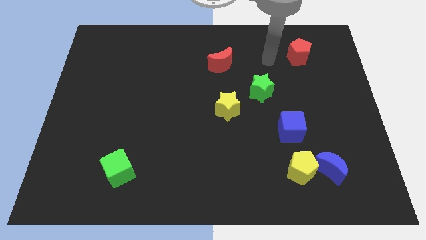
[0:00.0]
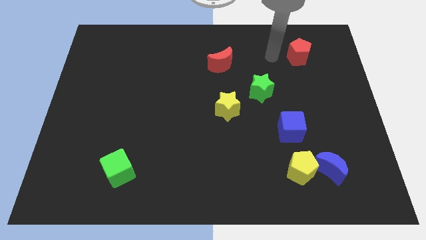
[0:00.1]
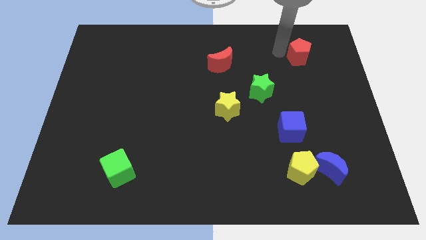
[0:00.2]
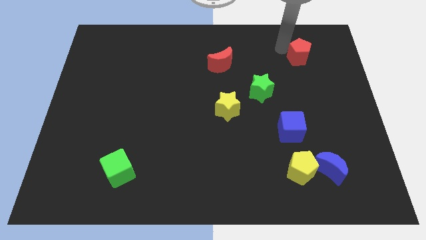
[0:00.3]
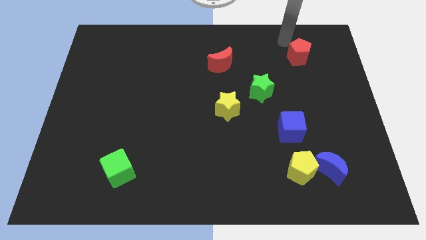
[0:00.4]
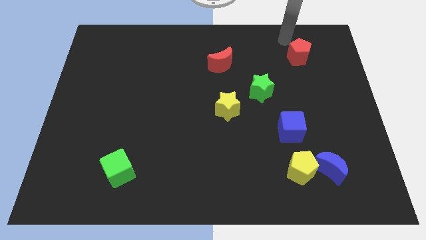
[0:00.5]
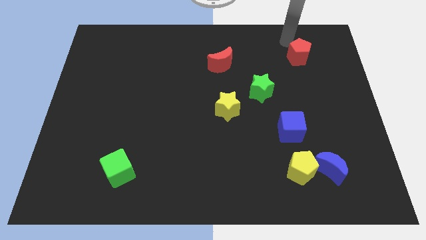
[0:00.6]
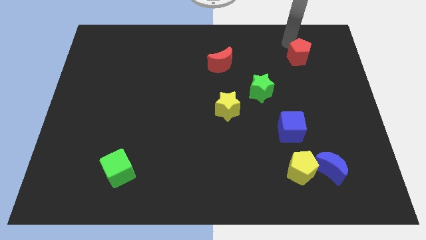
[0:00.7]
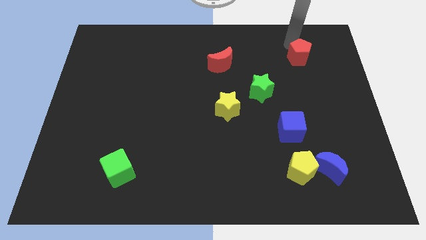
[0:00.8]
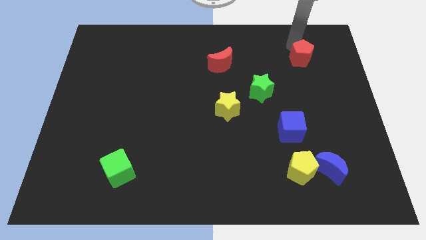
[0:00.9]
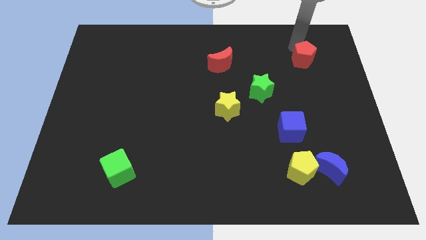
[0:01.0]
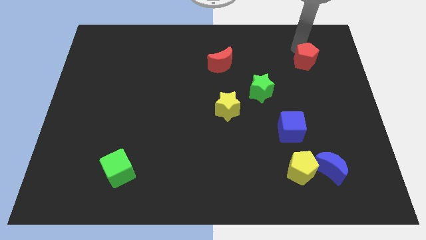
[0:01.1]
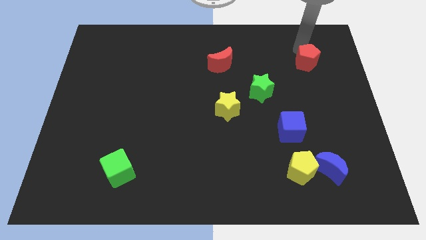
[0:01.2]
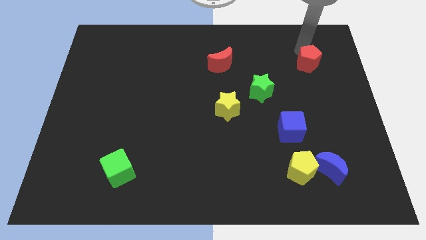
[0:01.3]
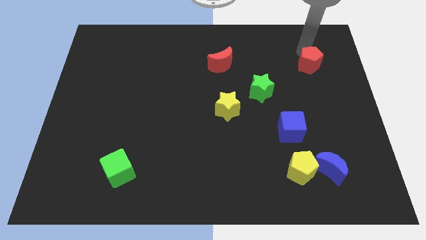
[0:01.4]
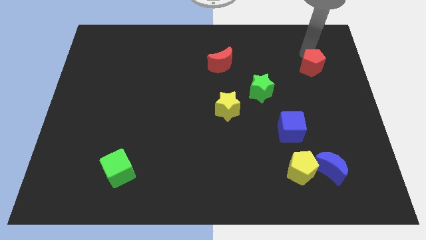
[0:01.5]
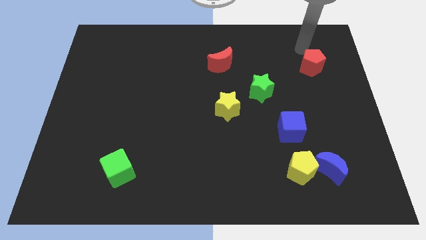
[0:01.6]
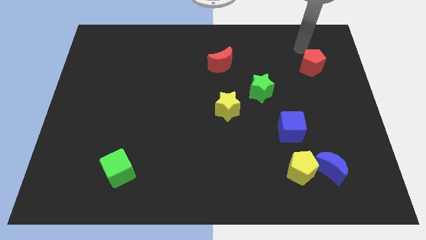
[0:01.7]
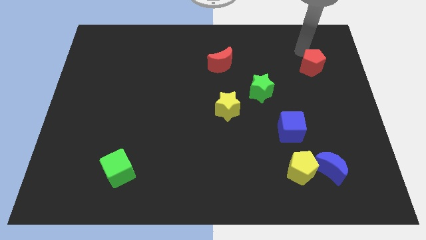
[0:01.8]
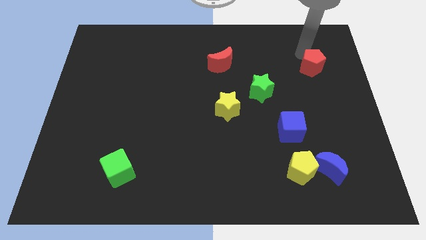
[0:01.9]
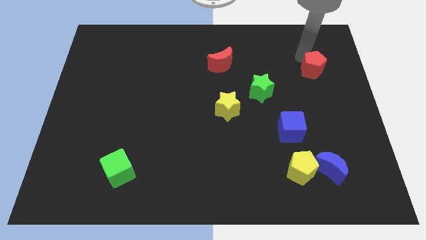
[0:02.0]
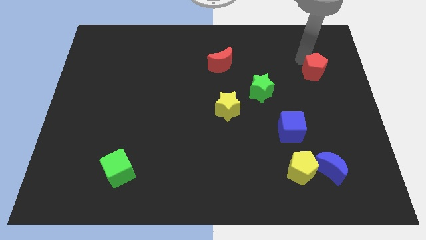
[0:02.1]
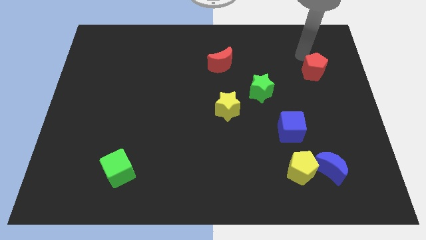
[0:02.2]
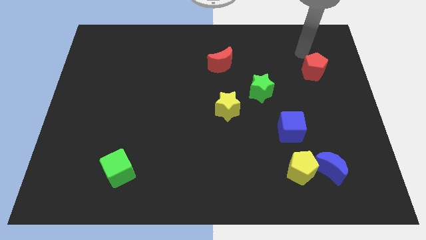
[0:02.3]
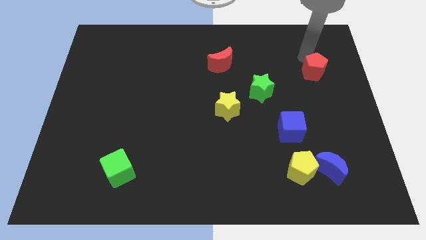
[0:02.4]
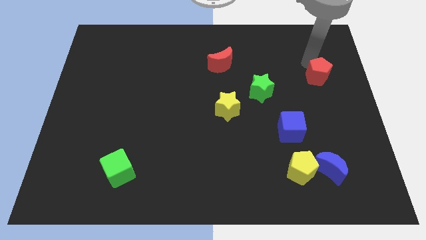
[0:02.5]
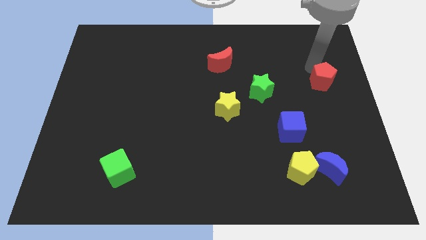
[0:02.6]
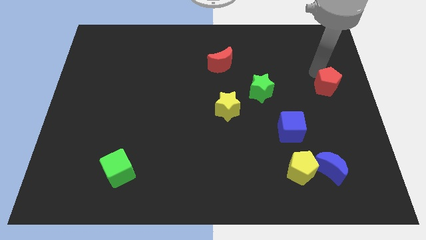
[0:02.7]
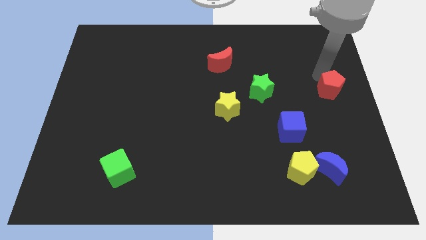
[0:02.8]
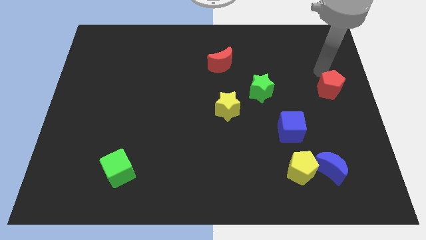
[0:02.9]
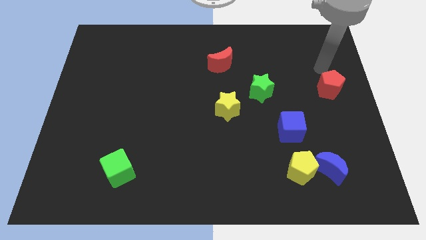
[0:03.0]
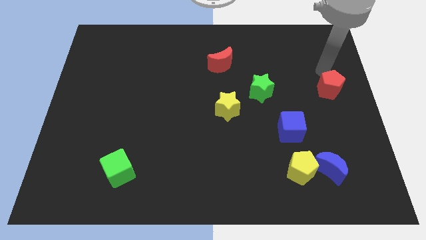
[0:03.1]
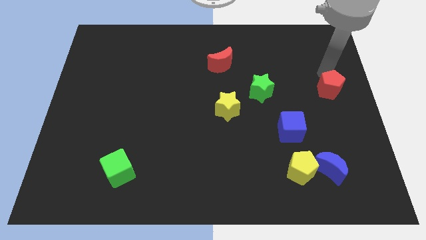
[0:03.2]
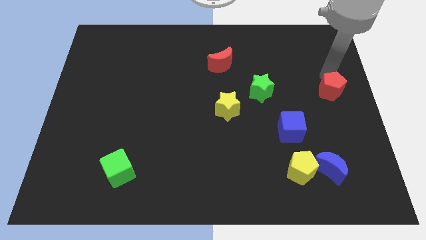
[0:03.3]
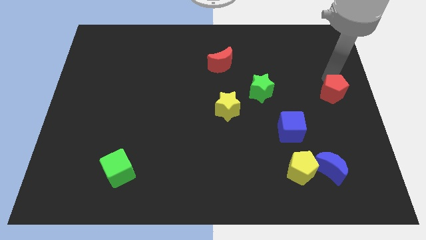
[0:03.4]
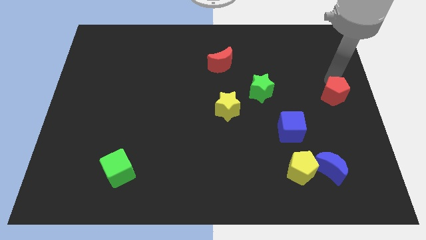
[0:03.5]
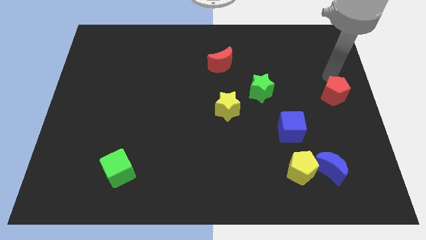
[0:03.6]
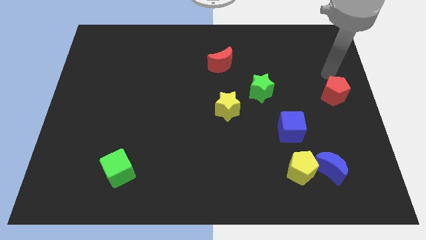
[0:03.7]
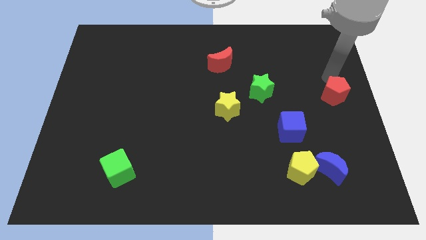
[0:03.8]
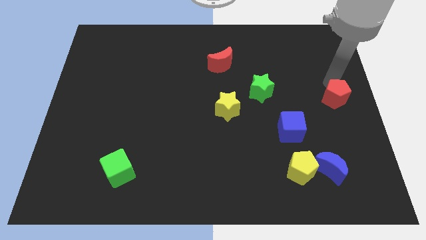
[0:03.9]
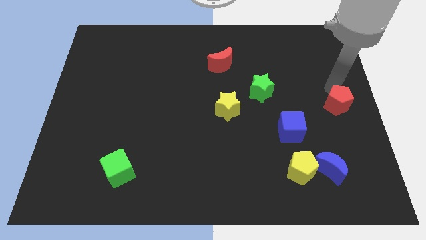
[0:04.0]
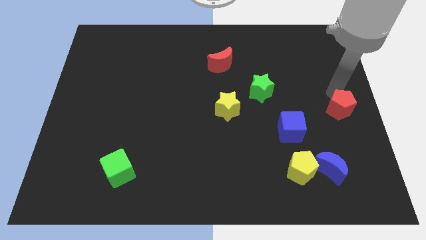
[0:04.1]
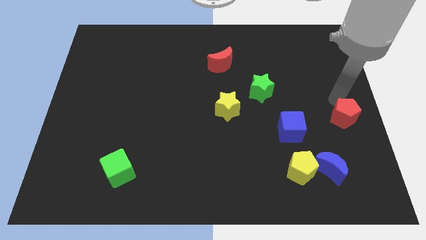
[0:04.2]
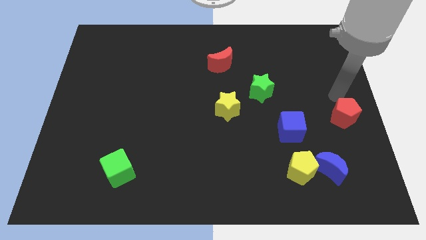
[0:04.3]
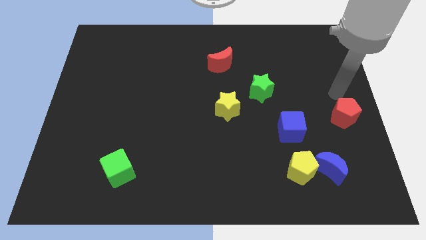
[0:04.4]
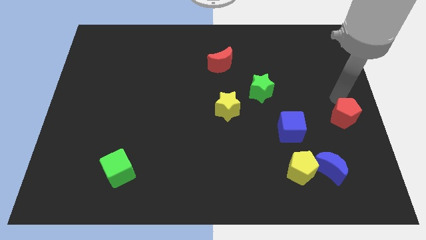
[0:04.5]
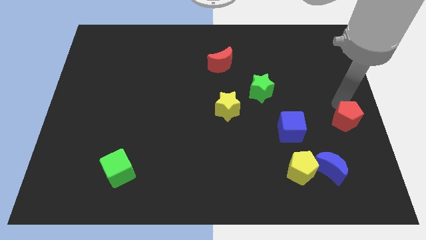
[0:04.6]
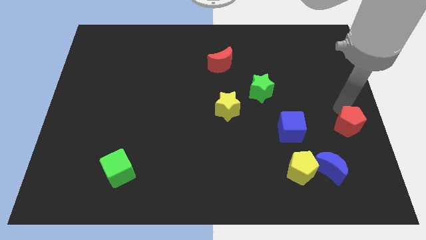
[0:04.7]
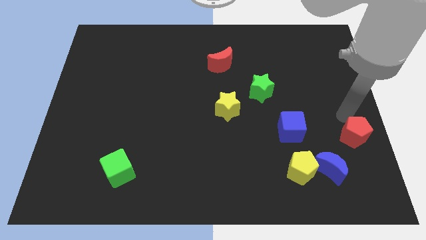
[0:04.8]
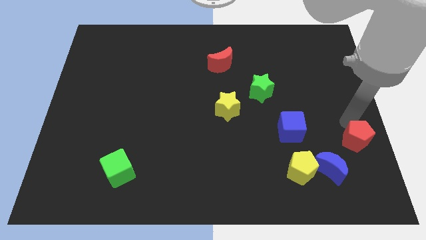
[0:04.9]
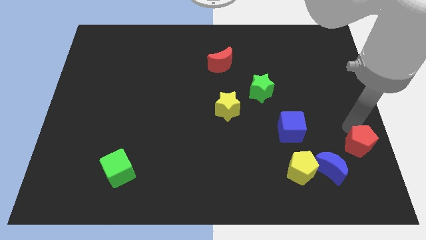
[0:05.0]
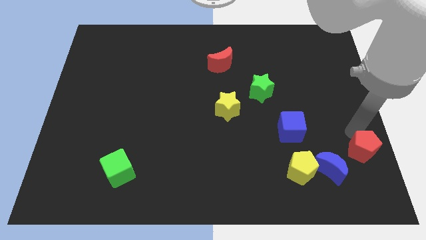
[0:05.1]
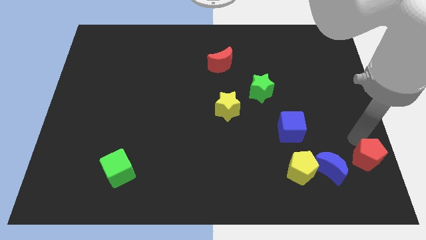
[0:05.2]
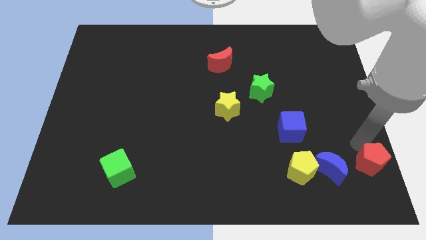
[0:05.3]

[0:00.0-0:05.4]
push the red pentagon to the bottom right corner
